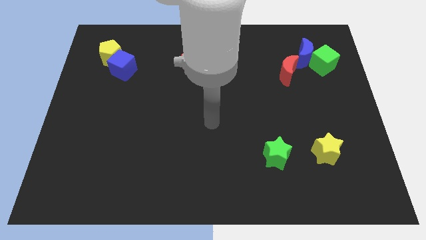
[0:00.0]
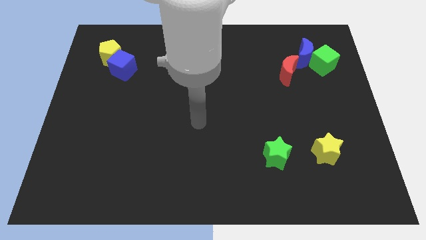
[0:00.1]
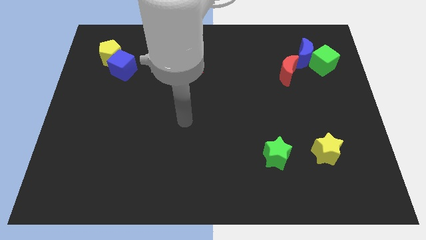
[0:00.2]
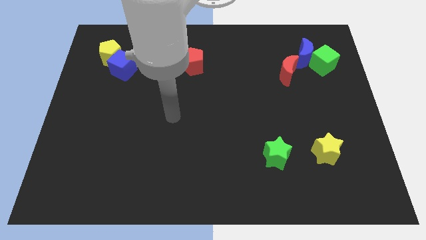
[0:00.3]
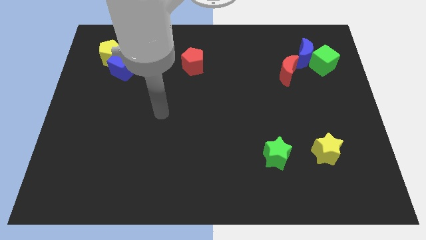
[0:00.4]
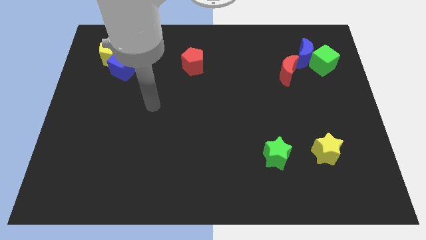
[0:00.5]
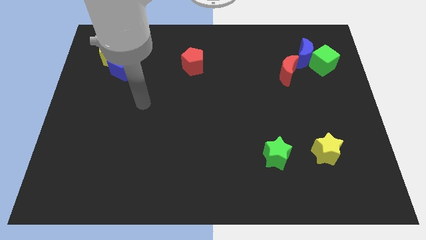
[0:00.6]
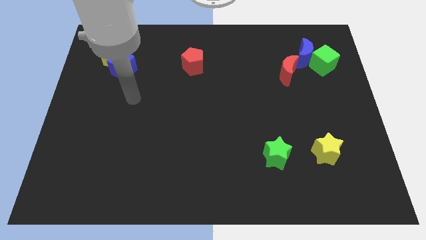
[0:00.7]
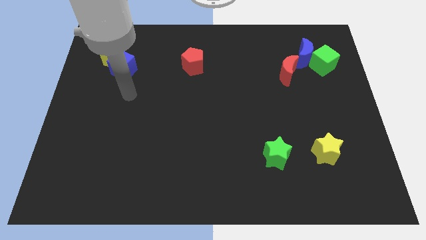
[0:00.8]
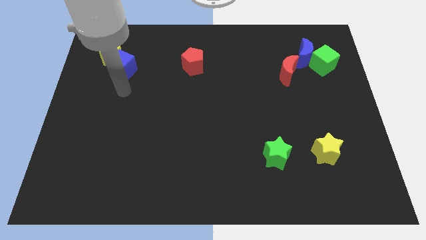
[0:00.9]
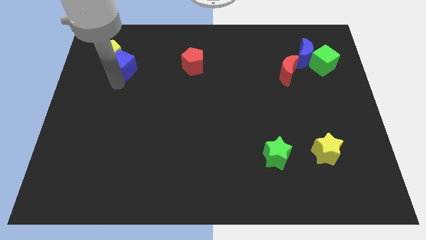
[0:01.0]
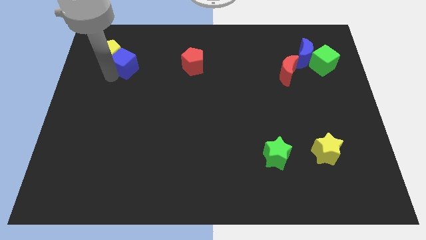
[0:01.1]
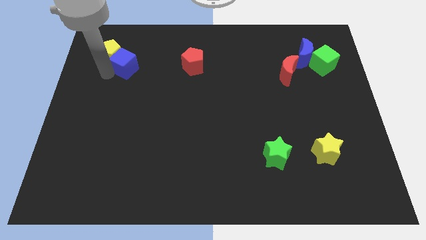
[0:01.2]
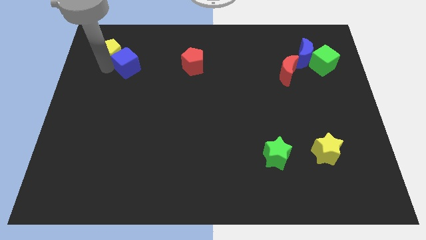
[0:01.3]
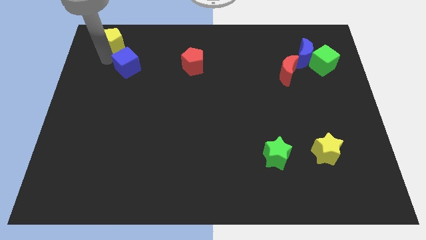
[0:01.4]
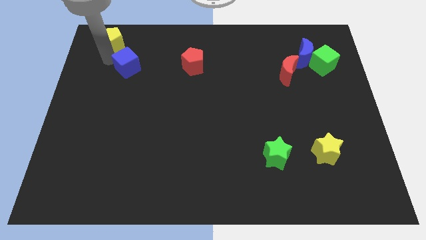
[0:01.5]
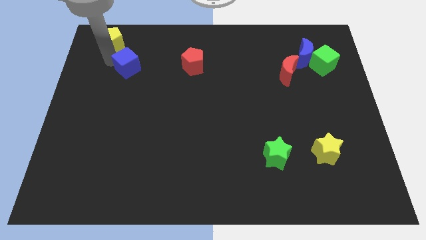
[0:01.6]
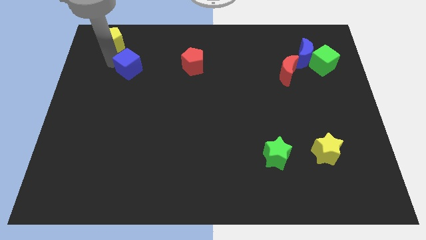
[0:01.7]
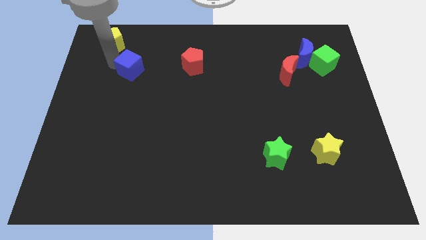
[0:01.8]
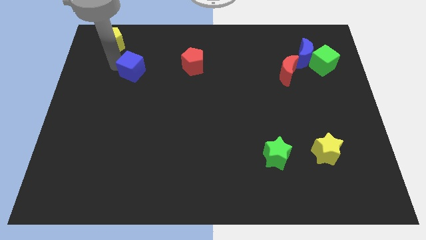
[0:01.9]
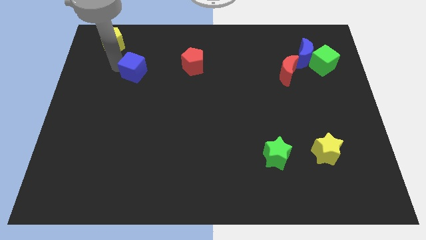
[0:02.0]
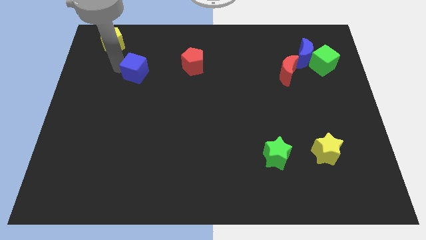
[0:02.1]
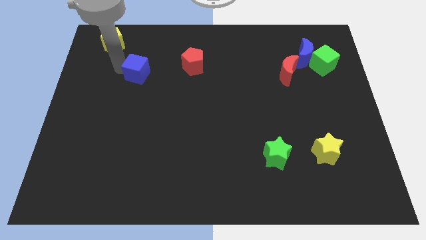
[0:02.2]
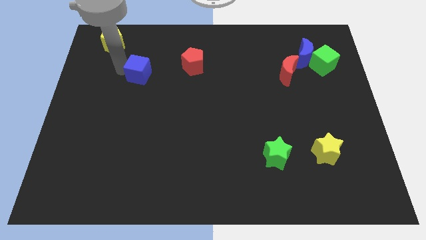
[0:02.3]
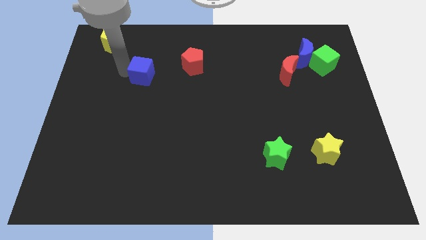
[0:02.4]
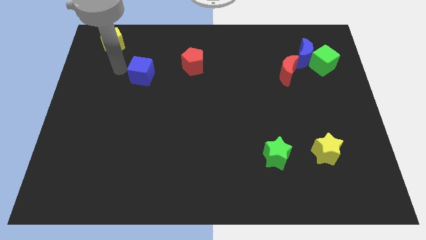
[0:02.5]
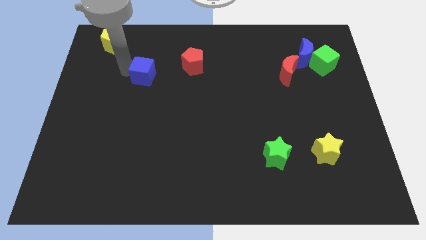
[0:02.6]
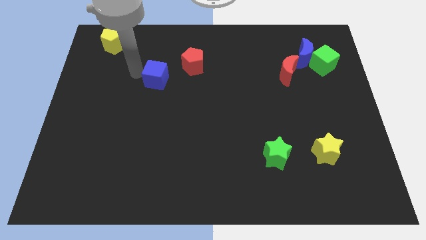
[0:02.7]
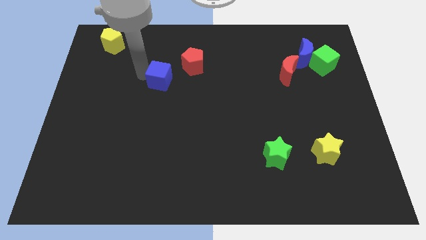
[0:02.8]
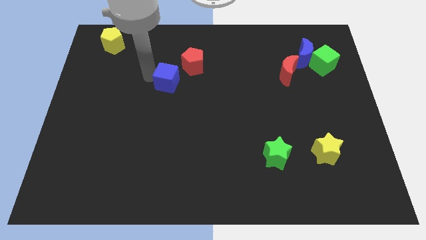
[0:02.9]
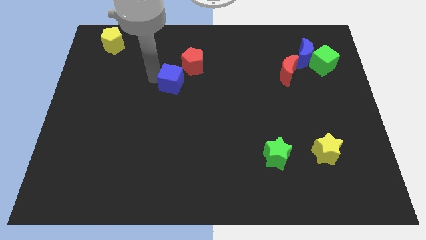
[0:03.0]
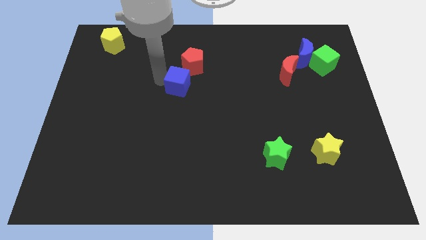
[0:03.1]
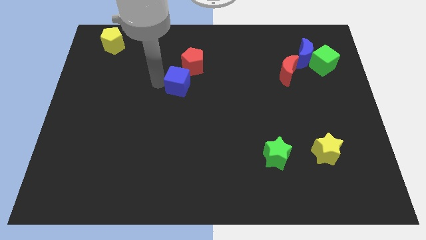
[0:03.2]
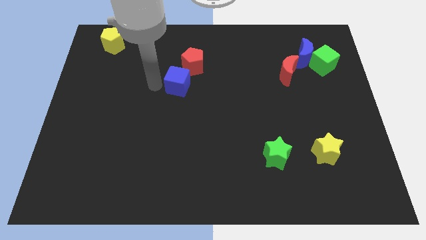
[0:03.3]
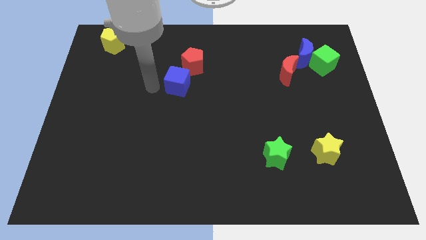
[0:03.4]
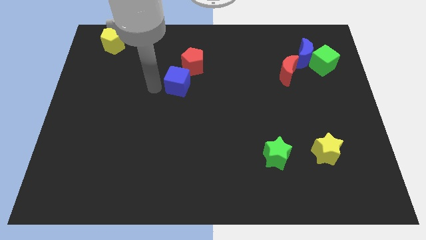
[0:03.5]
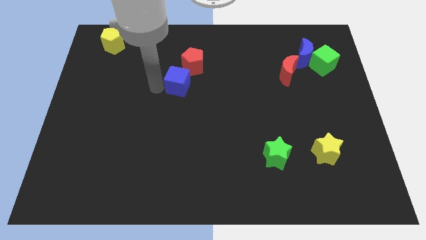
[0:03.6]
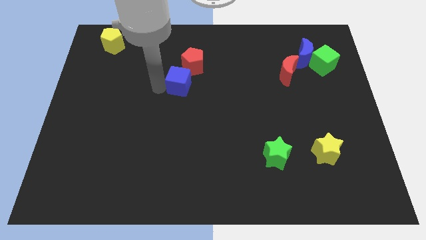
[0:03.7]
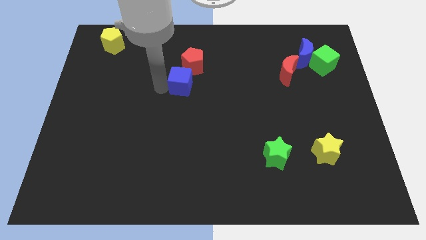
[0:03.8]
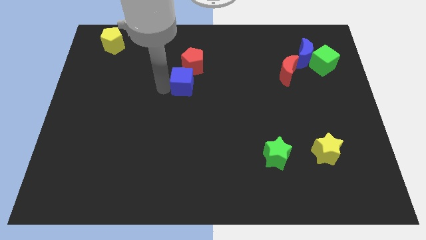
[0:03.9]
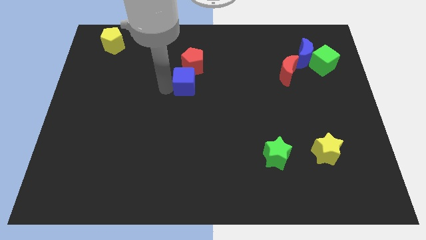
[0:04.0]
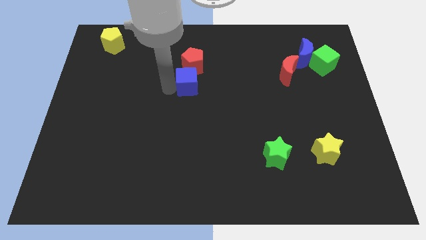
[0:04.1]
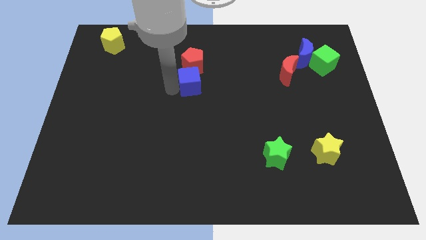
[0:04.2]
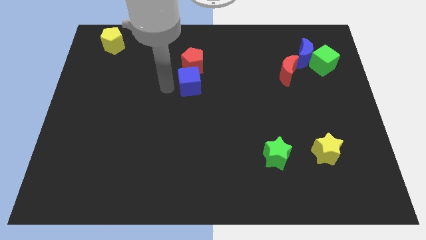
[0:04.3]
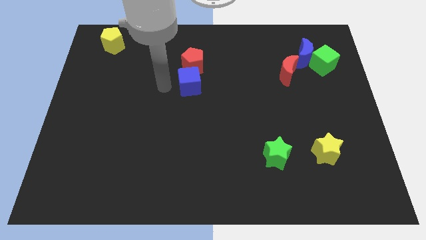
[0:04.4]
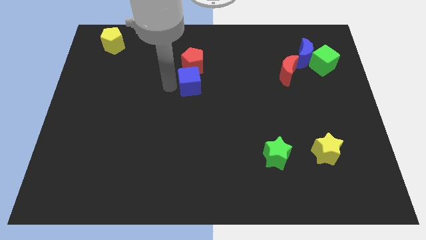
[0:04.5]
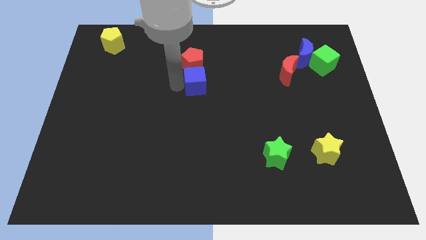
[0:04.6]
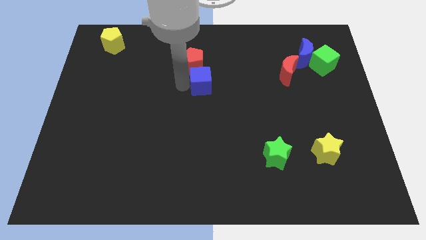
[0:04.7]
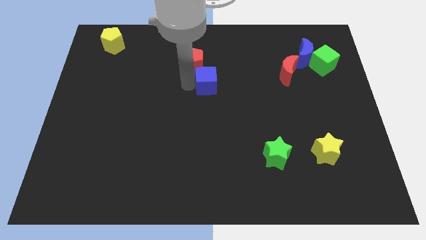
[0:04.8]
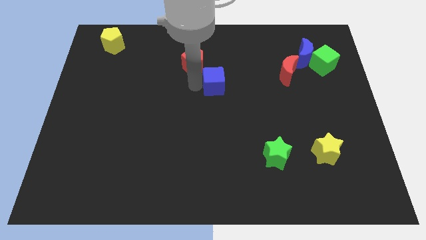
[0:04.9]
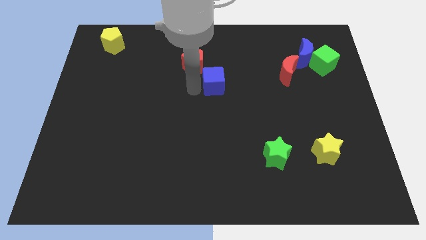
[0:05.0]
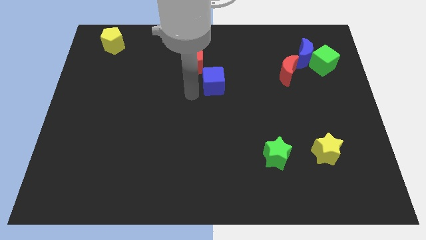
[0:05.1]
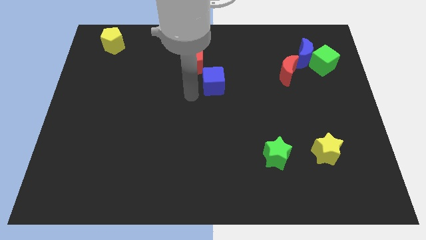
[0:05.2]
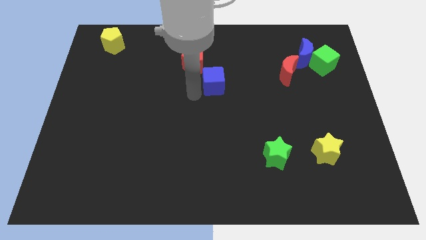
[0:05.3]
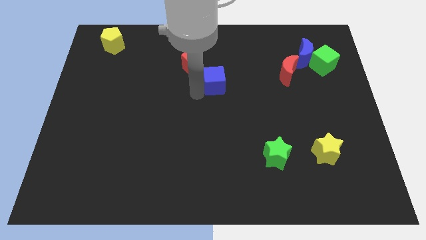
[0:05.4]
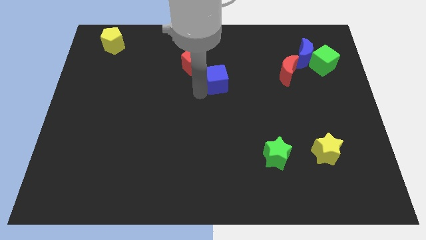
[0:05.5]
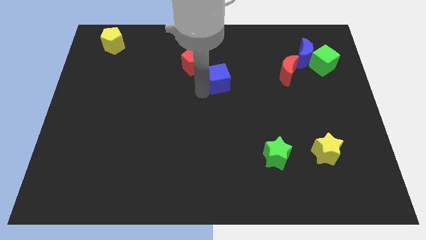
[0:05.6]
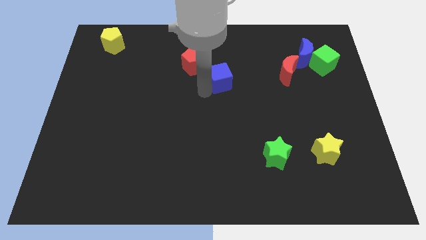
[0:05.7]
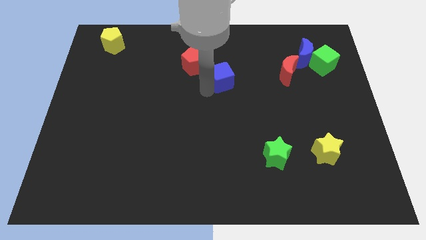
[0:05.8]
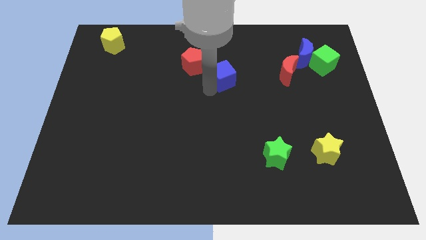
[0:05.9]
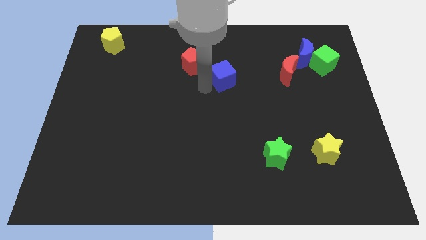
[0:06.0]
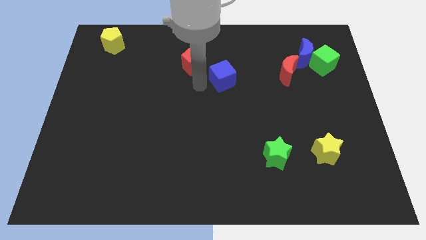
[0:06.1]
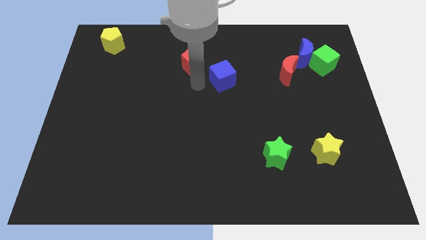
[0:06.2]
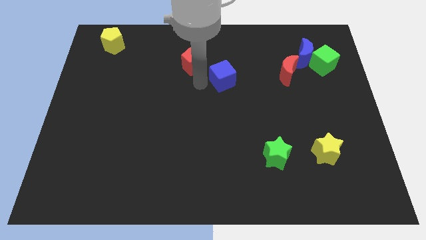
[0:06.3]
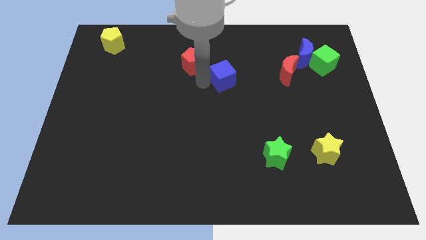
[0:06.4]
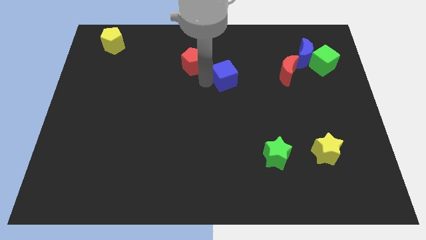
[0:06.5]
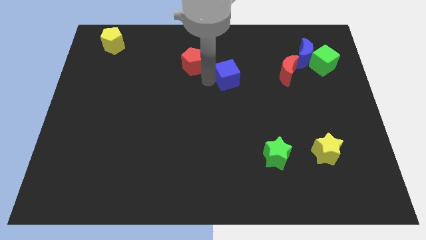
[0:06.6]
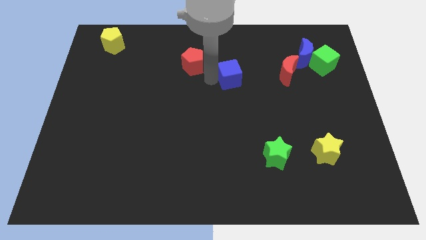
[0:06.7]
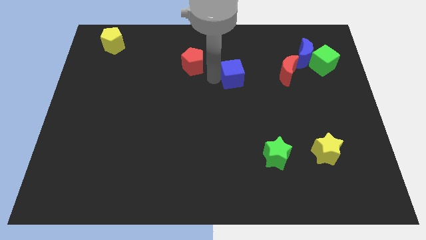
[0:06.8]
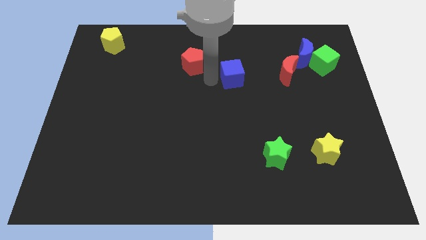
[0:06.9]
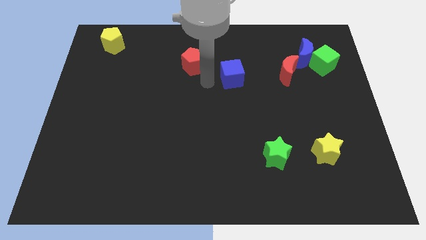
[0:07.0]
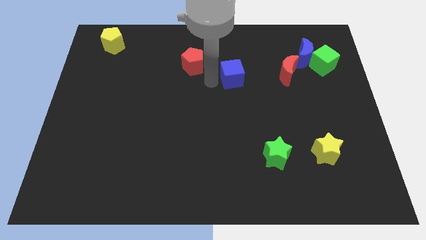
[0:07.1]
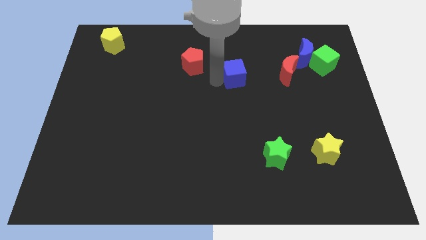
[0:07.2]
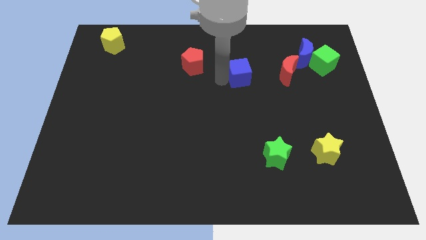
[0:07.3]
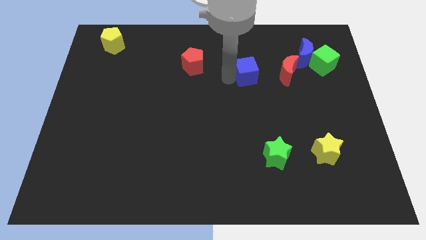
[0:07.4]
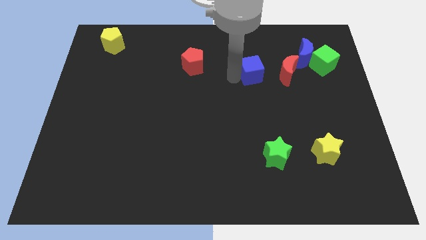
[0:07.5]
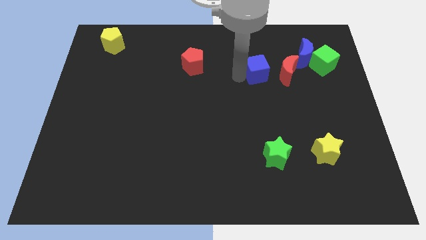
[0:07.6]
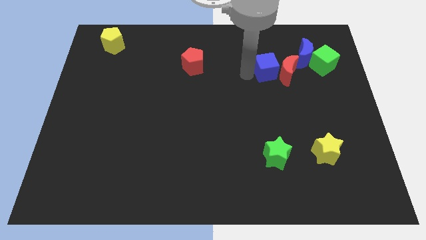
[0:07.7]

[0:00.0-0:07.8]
slide the blue cube close to the red moon

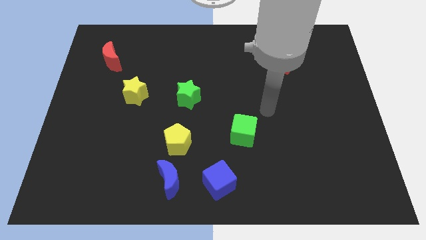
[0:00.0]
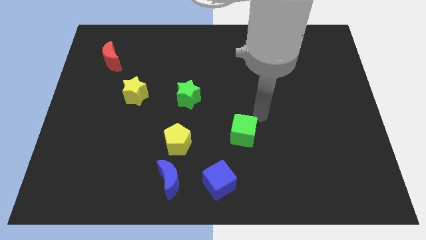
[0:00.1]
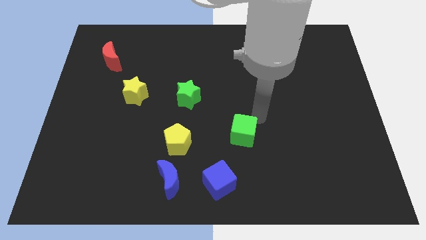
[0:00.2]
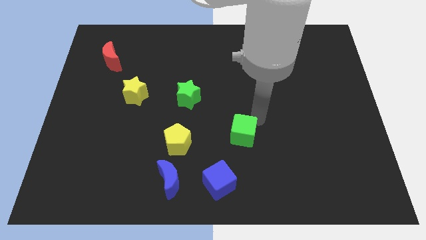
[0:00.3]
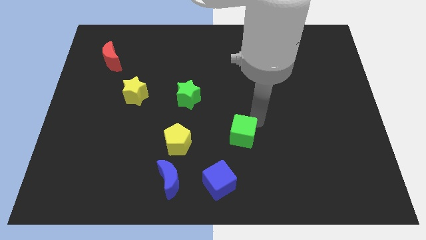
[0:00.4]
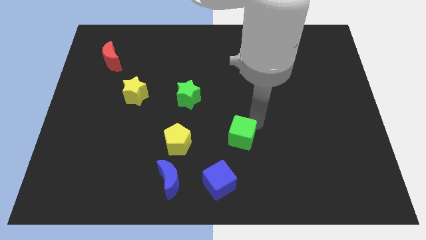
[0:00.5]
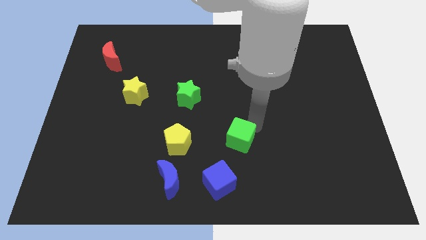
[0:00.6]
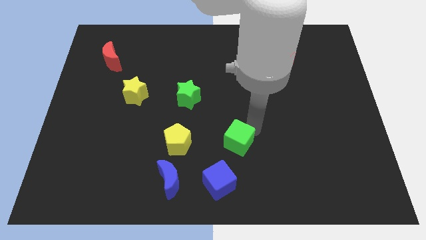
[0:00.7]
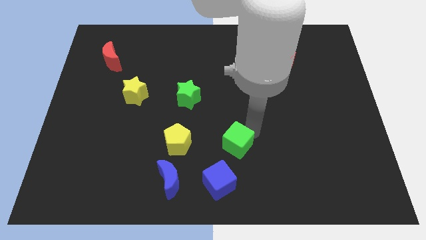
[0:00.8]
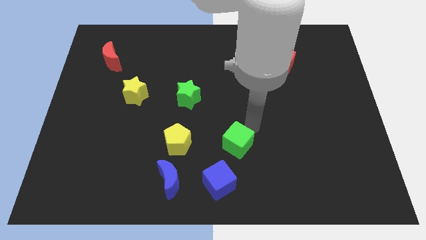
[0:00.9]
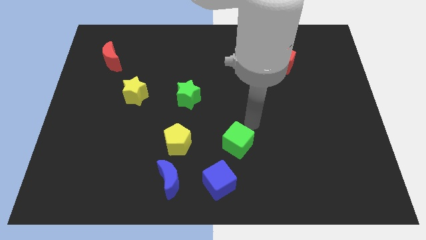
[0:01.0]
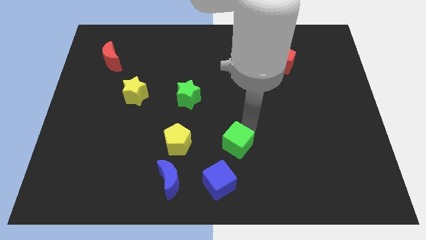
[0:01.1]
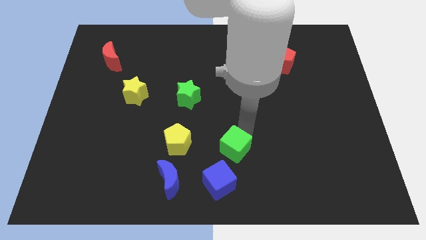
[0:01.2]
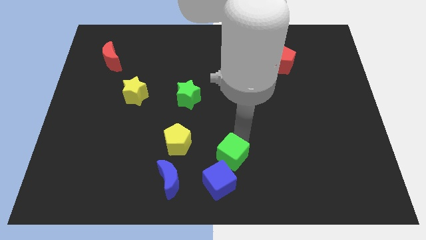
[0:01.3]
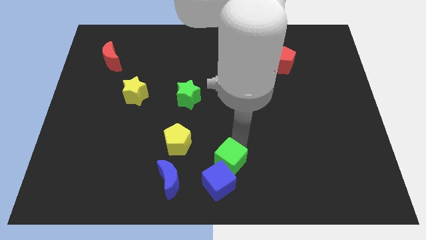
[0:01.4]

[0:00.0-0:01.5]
put the green cube next to the blue cube
